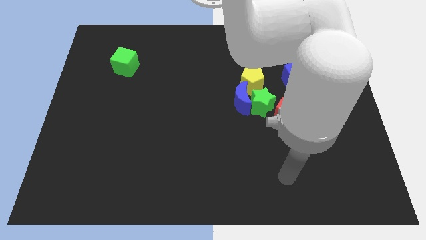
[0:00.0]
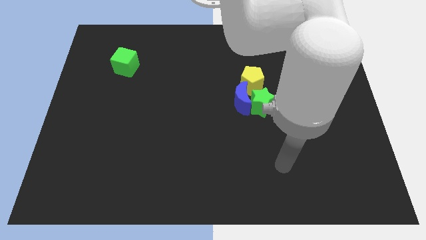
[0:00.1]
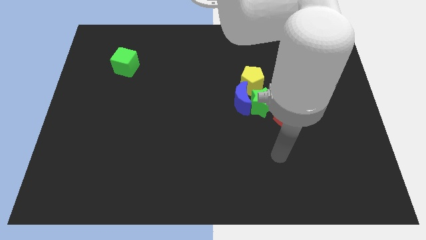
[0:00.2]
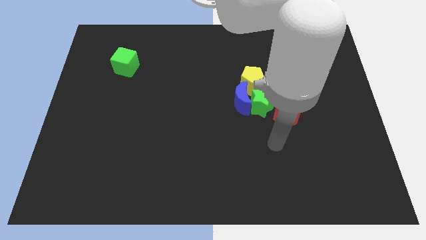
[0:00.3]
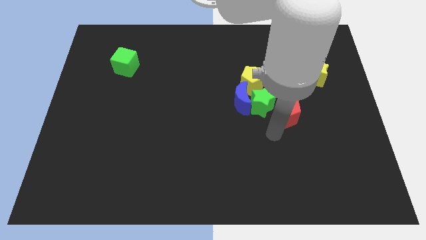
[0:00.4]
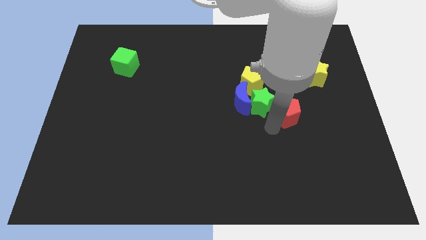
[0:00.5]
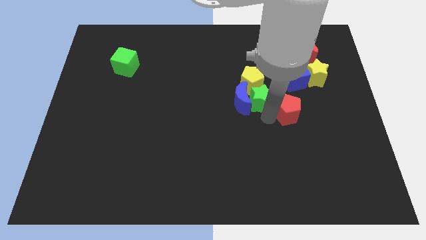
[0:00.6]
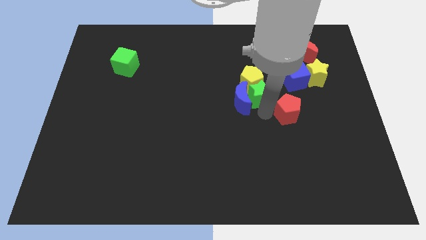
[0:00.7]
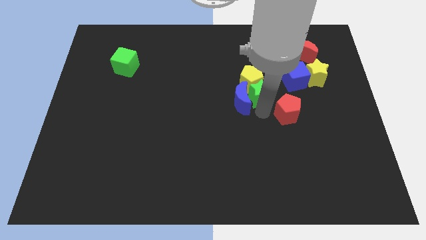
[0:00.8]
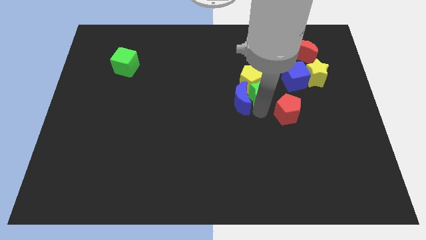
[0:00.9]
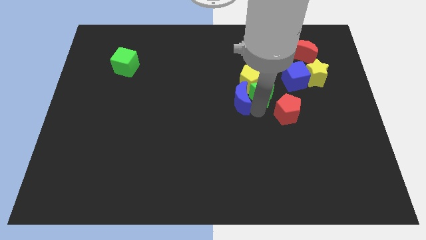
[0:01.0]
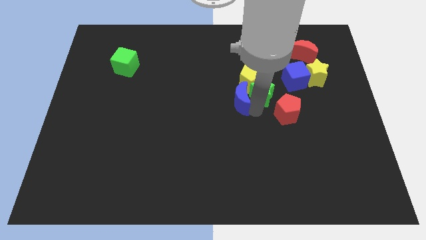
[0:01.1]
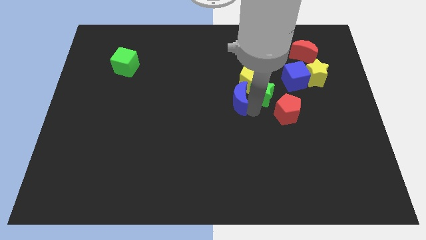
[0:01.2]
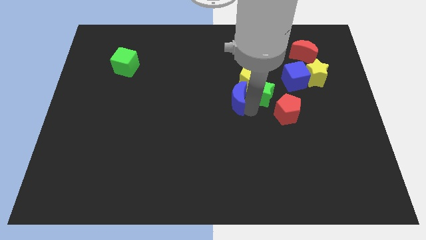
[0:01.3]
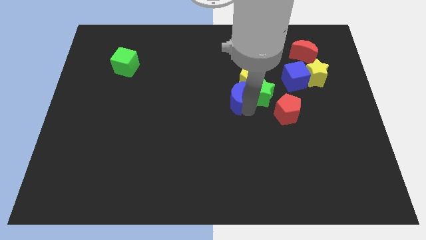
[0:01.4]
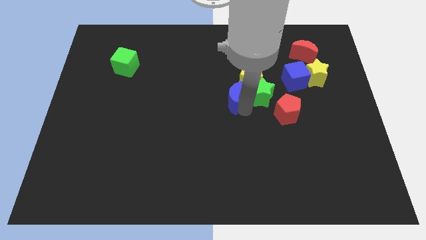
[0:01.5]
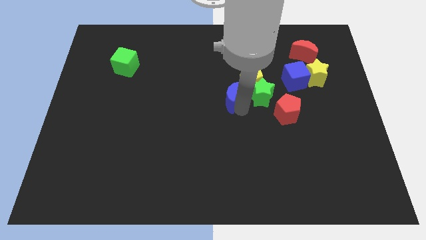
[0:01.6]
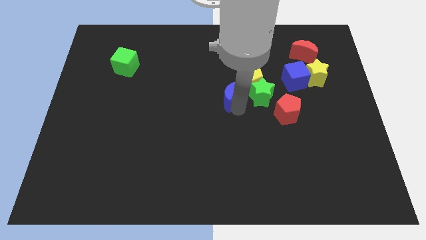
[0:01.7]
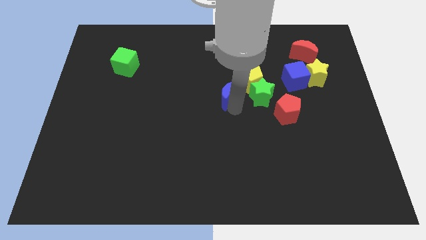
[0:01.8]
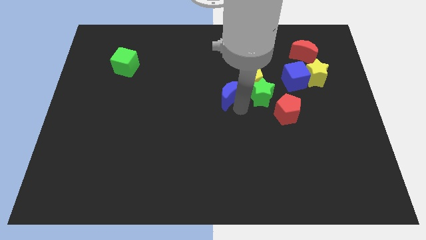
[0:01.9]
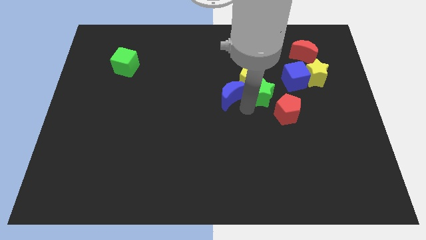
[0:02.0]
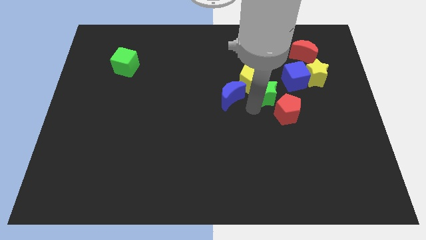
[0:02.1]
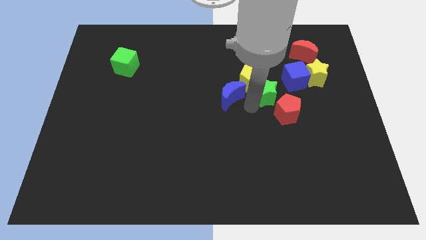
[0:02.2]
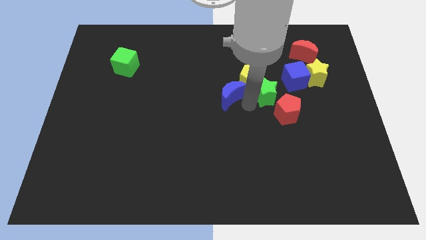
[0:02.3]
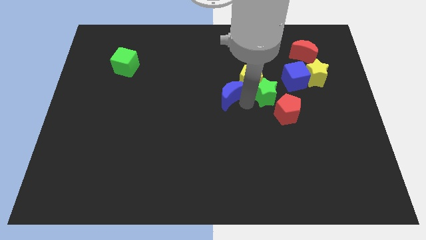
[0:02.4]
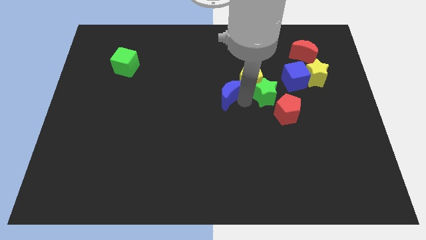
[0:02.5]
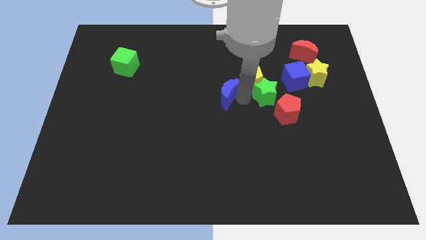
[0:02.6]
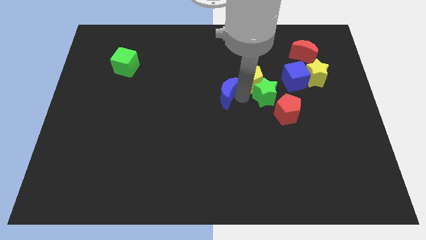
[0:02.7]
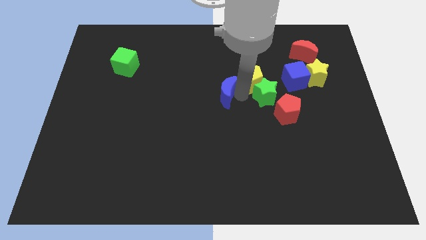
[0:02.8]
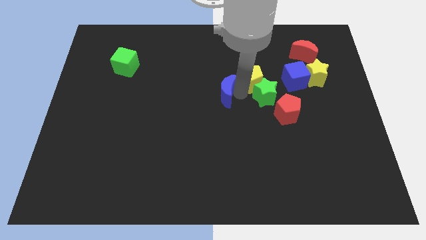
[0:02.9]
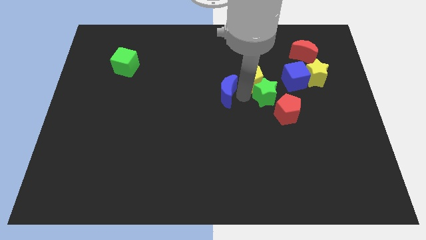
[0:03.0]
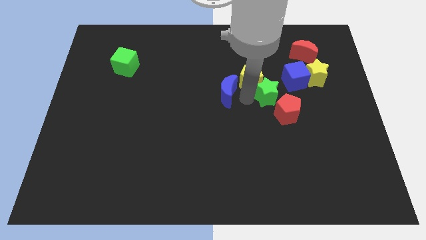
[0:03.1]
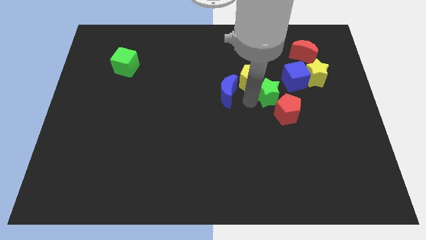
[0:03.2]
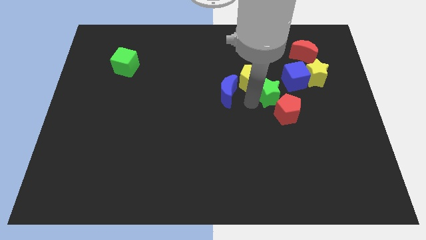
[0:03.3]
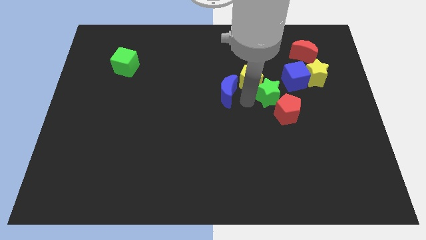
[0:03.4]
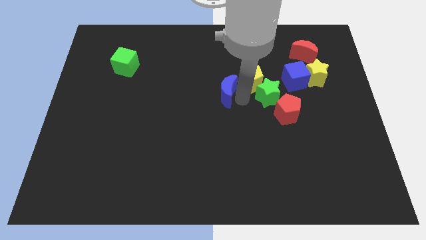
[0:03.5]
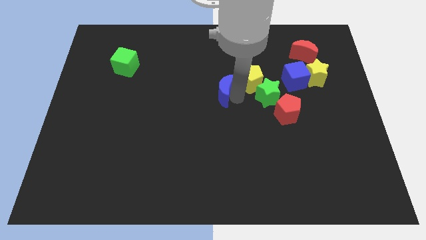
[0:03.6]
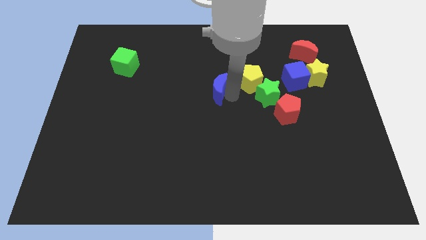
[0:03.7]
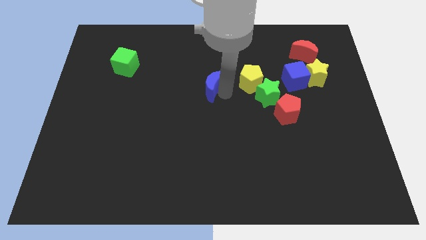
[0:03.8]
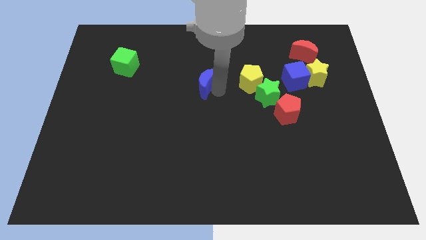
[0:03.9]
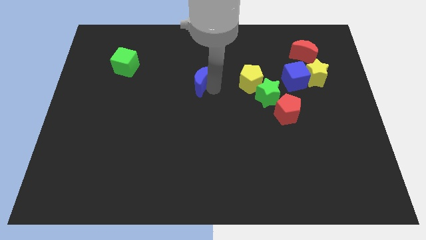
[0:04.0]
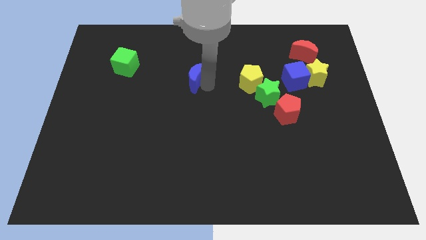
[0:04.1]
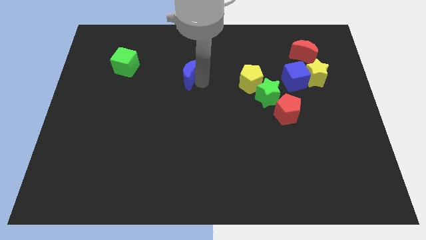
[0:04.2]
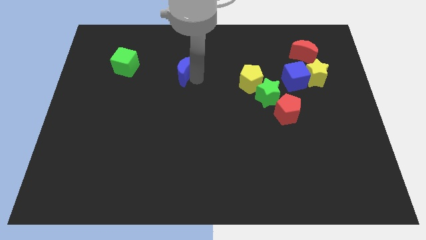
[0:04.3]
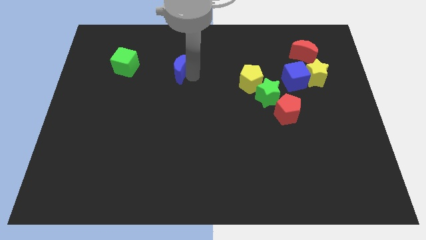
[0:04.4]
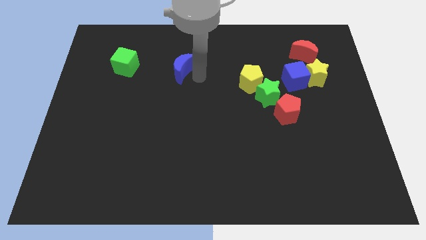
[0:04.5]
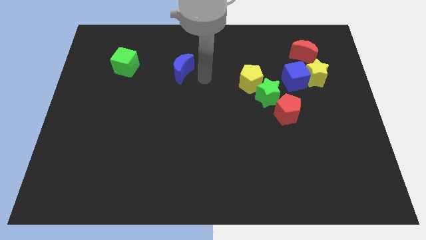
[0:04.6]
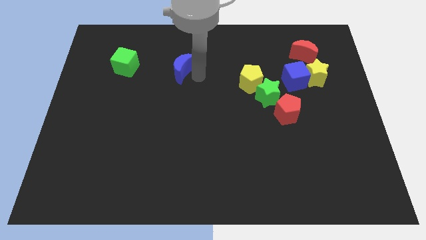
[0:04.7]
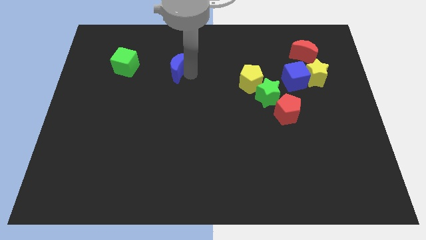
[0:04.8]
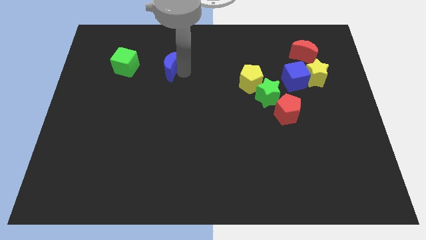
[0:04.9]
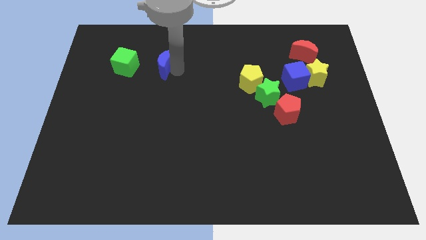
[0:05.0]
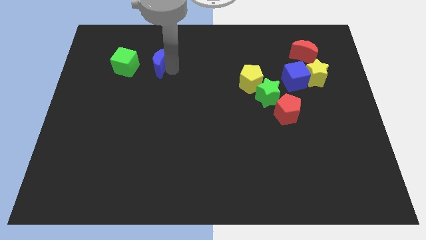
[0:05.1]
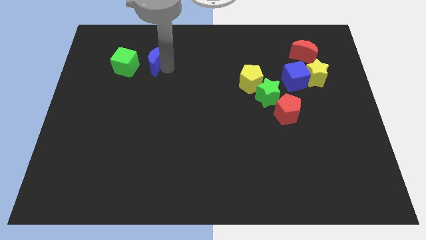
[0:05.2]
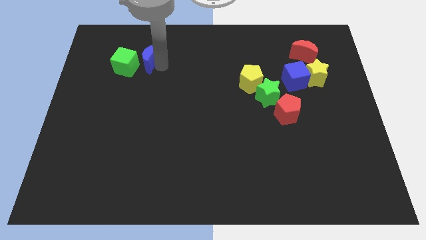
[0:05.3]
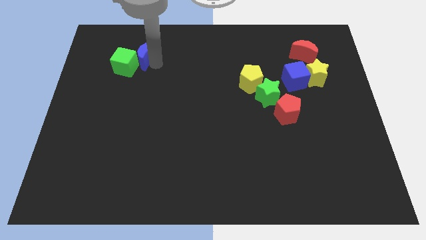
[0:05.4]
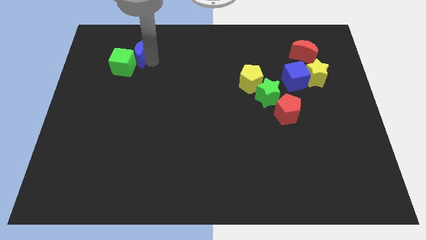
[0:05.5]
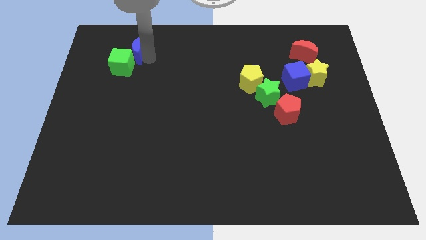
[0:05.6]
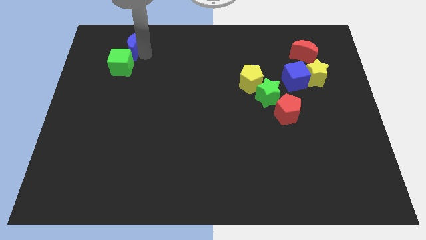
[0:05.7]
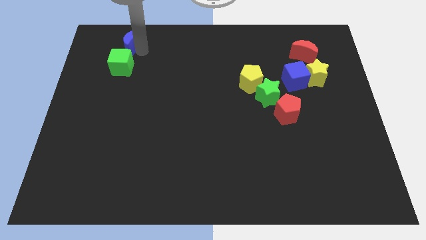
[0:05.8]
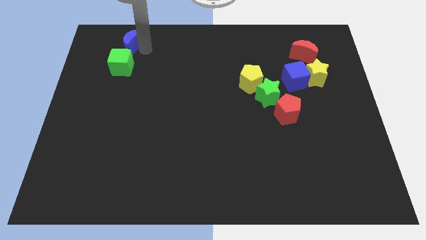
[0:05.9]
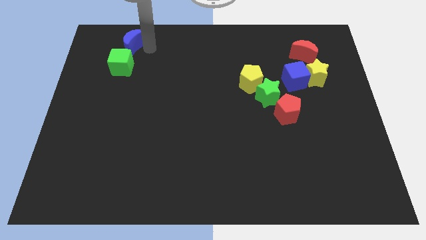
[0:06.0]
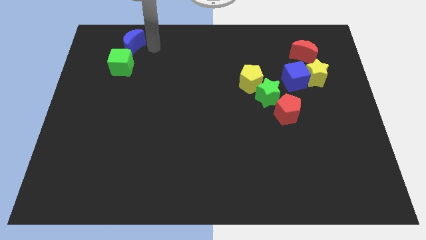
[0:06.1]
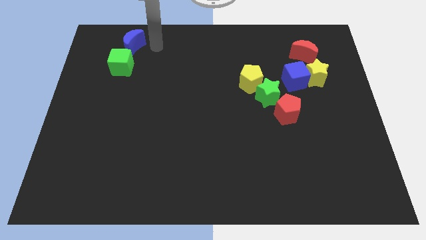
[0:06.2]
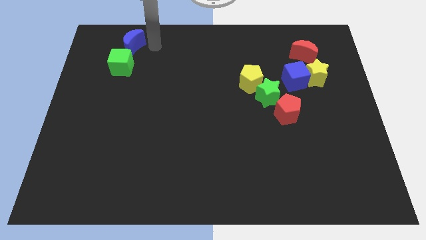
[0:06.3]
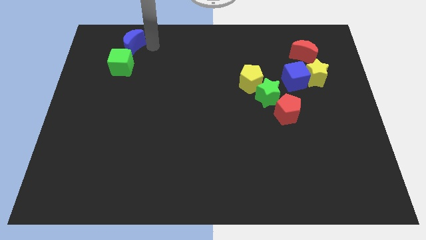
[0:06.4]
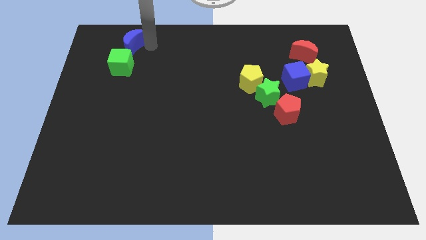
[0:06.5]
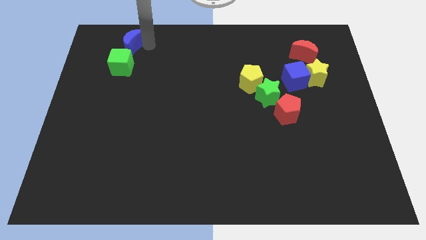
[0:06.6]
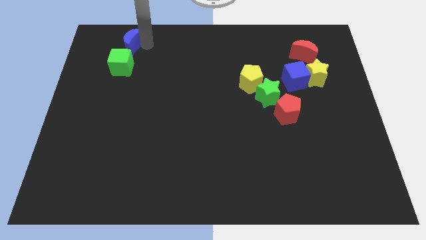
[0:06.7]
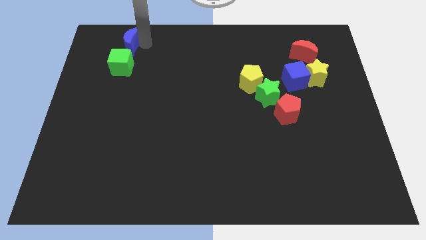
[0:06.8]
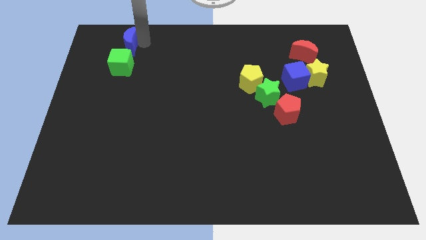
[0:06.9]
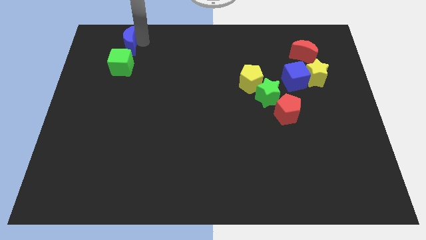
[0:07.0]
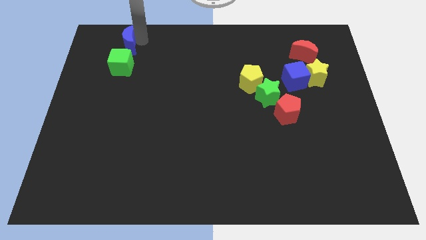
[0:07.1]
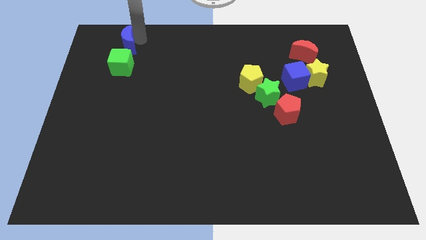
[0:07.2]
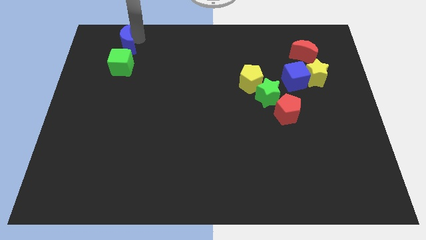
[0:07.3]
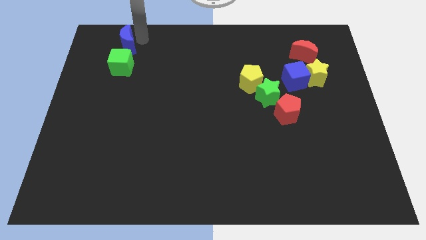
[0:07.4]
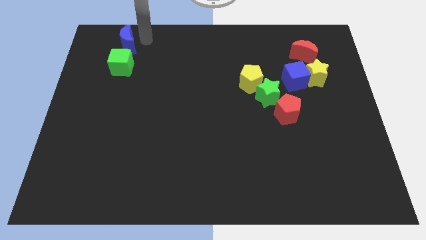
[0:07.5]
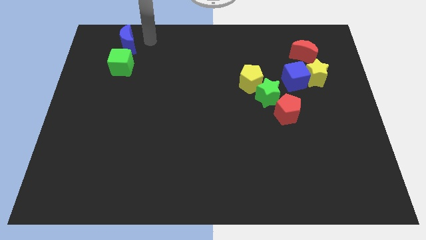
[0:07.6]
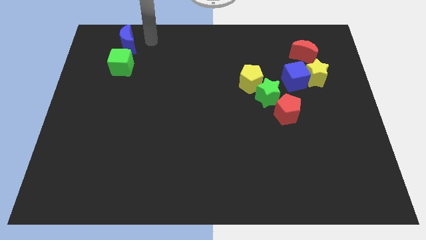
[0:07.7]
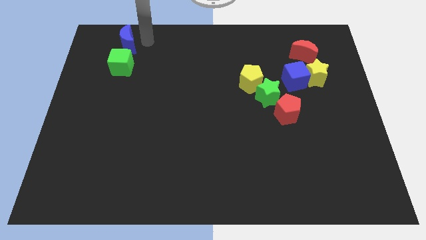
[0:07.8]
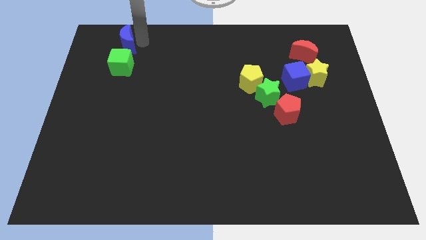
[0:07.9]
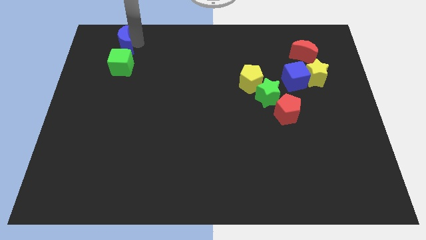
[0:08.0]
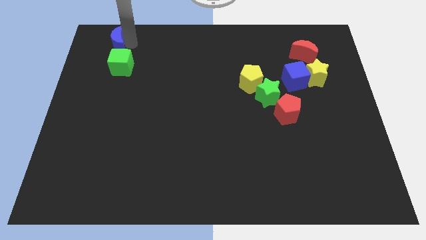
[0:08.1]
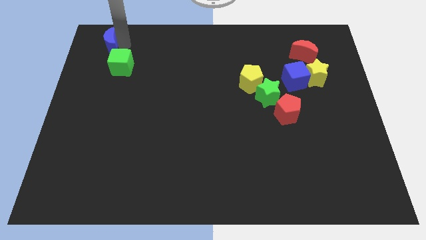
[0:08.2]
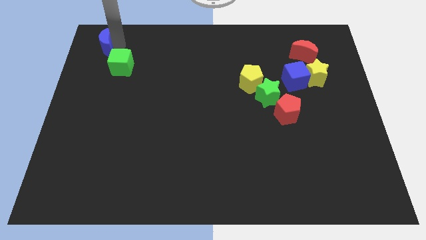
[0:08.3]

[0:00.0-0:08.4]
slide the blue moon to the top left
